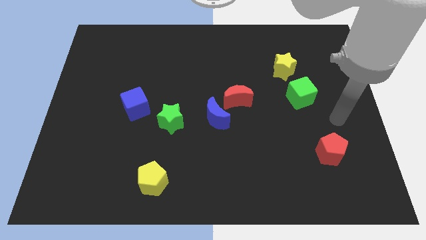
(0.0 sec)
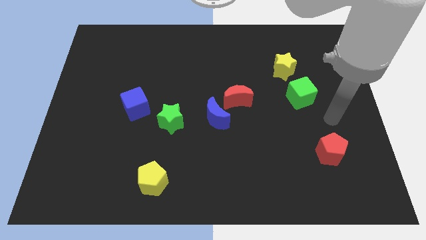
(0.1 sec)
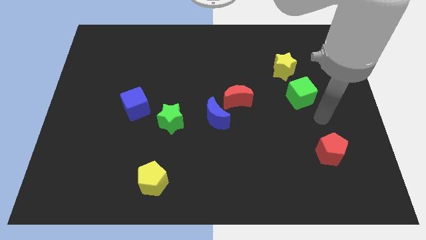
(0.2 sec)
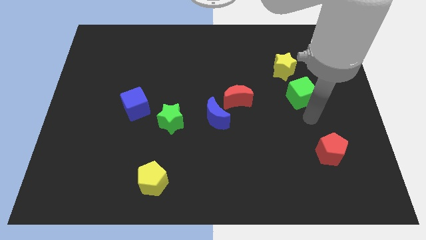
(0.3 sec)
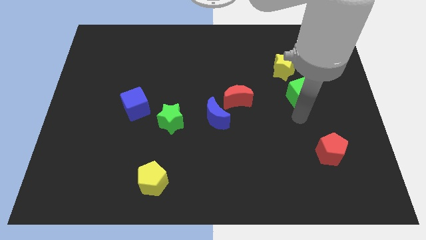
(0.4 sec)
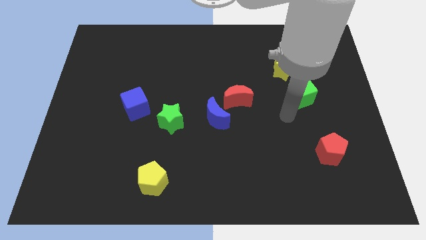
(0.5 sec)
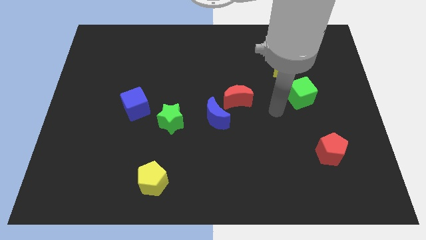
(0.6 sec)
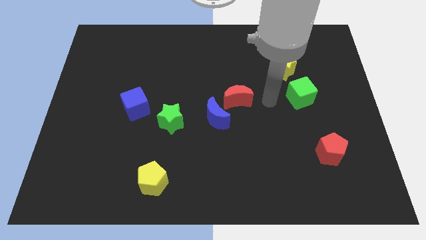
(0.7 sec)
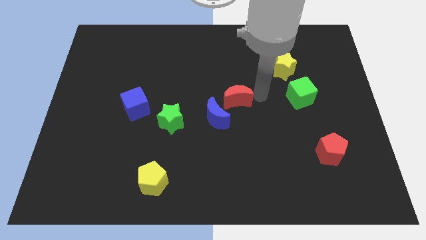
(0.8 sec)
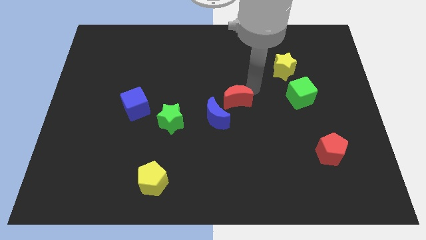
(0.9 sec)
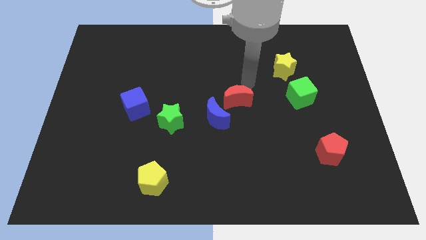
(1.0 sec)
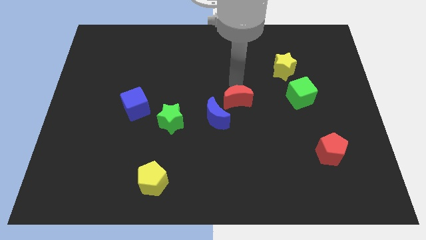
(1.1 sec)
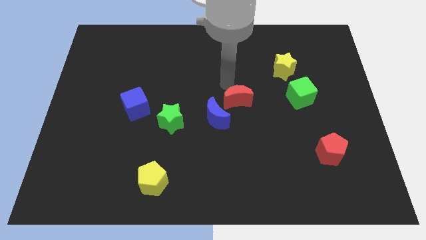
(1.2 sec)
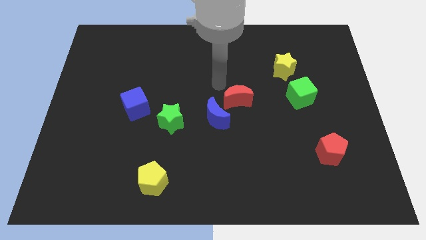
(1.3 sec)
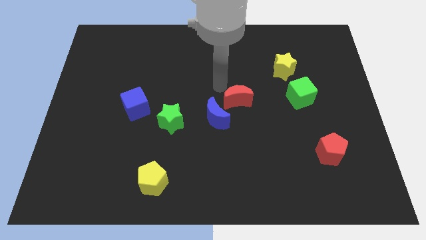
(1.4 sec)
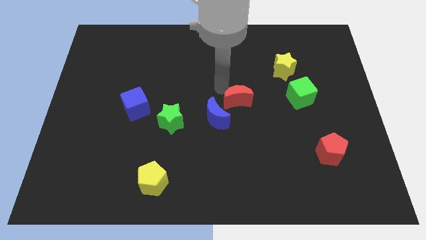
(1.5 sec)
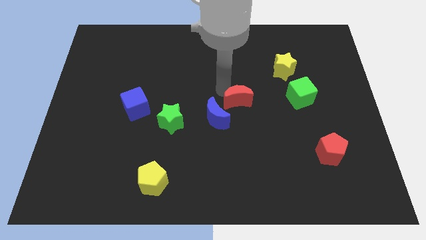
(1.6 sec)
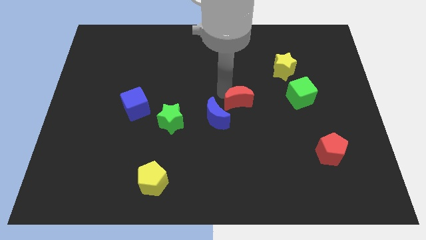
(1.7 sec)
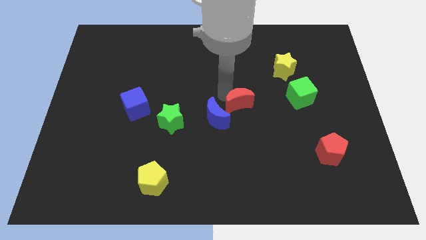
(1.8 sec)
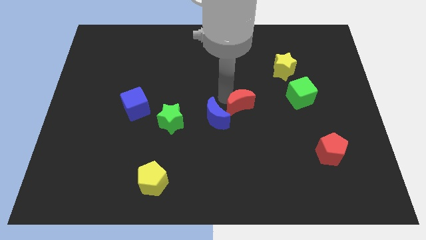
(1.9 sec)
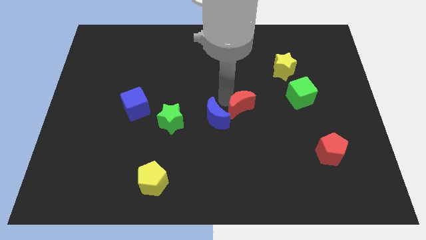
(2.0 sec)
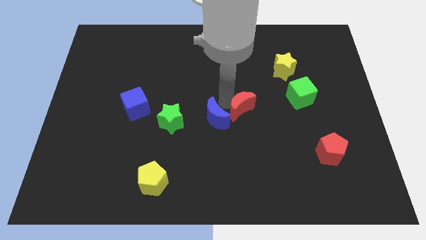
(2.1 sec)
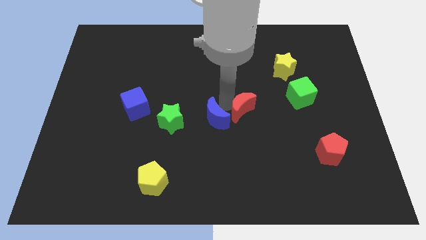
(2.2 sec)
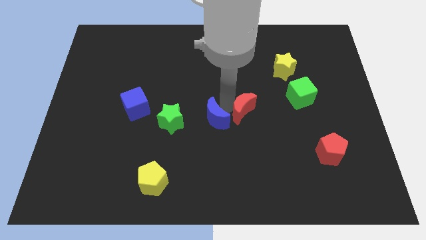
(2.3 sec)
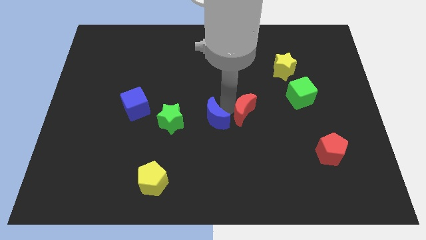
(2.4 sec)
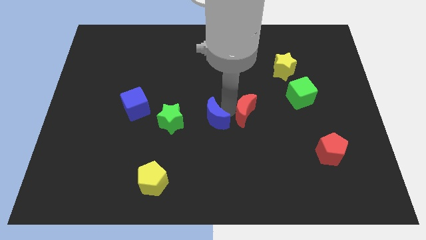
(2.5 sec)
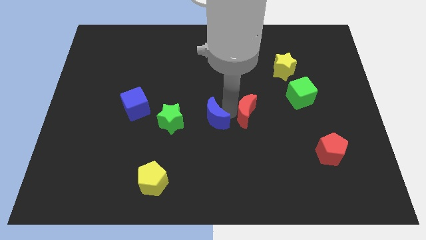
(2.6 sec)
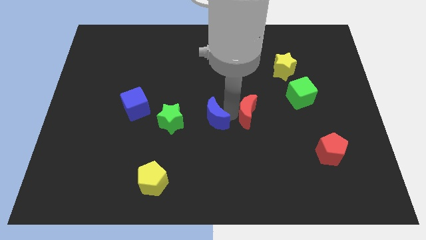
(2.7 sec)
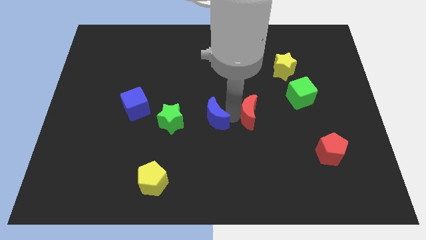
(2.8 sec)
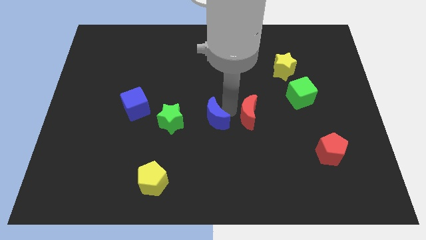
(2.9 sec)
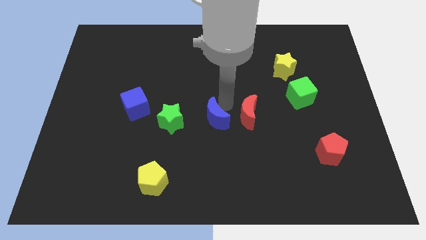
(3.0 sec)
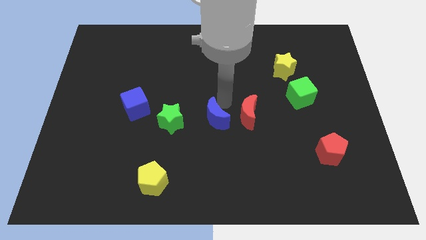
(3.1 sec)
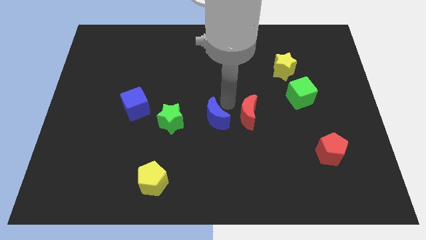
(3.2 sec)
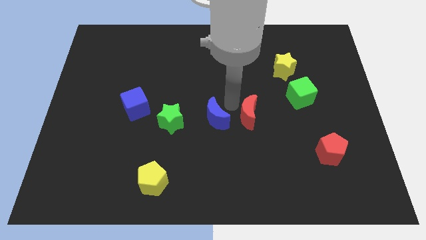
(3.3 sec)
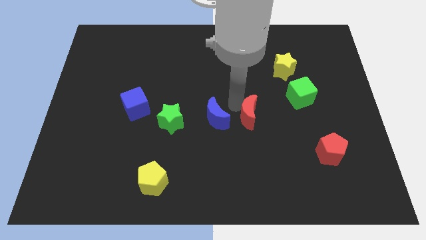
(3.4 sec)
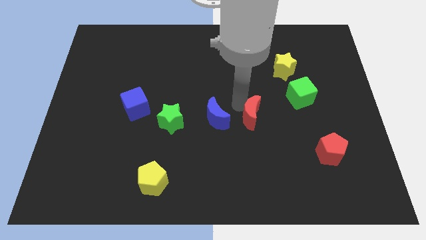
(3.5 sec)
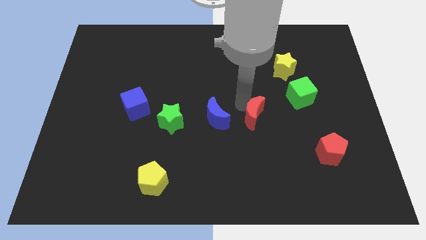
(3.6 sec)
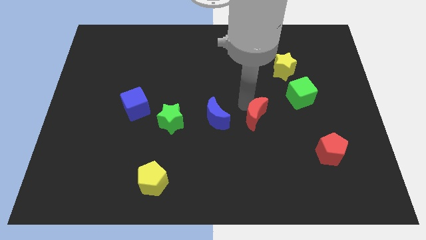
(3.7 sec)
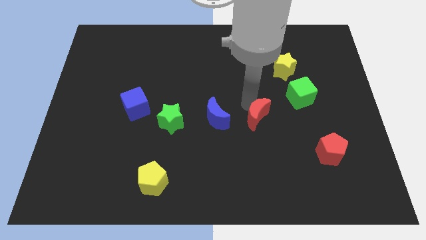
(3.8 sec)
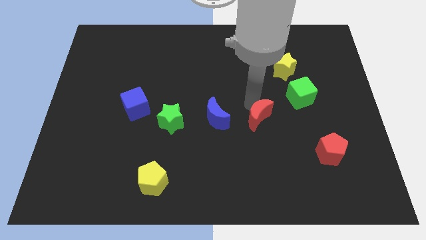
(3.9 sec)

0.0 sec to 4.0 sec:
slightly slide the red moon downwards and right diagonally

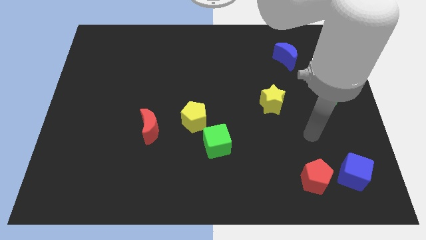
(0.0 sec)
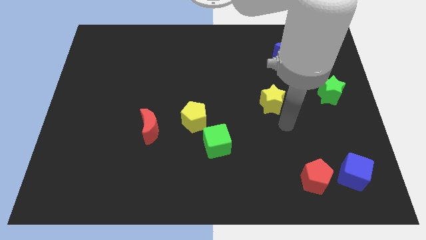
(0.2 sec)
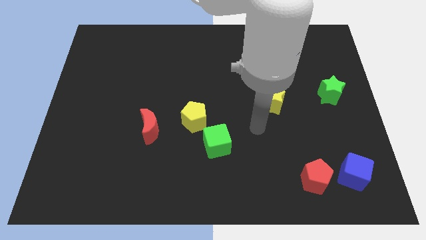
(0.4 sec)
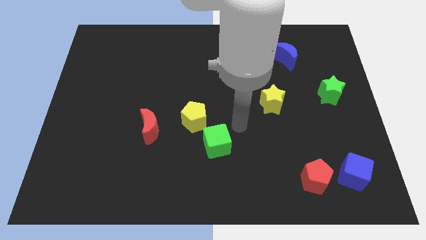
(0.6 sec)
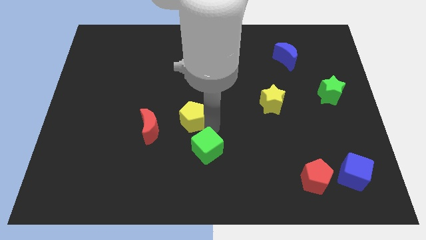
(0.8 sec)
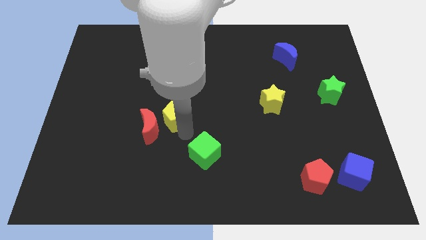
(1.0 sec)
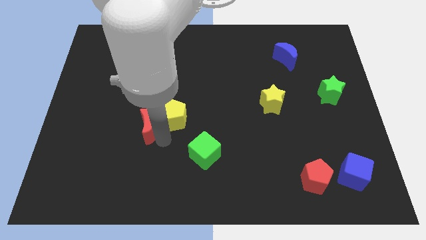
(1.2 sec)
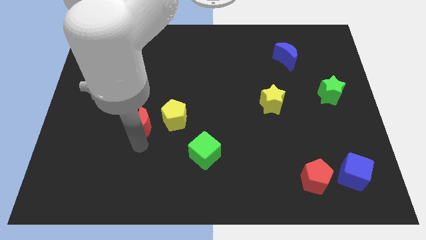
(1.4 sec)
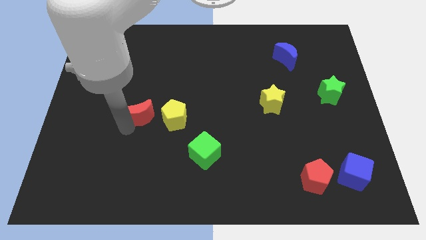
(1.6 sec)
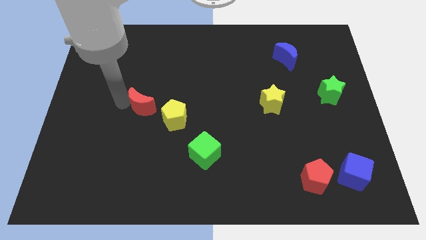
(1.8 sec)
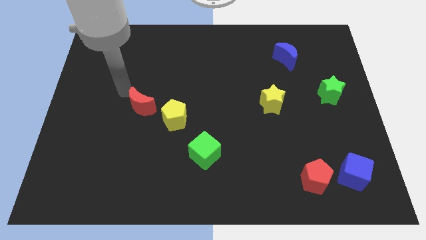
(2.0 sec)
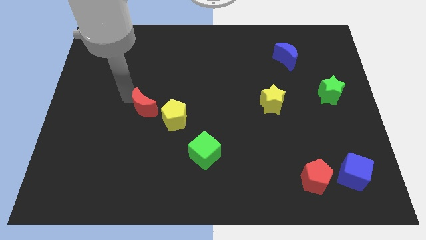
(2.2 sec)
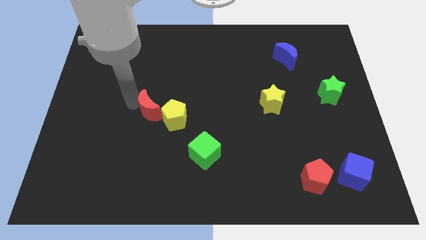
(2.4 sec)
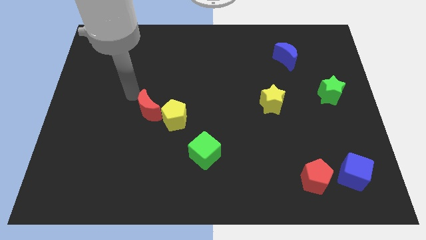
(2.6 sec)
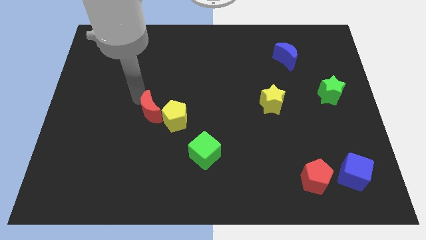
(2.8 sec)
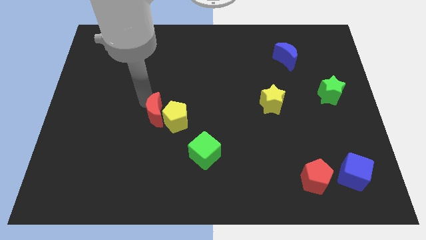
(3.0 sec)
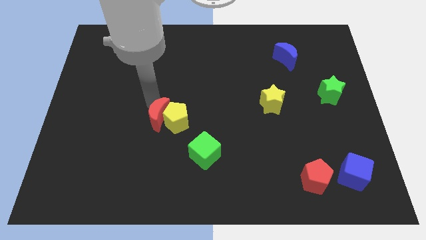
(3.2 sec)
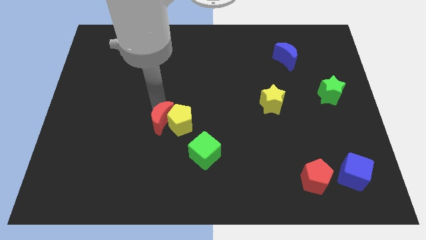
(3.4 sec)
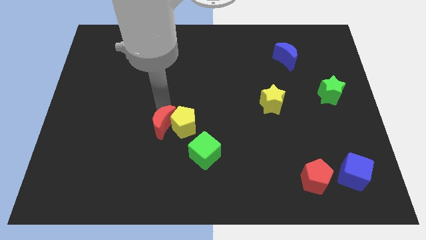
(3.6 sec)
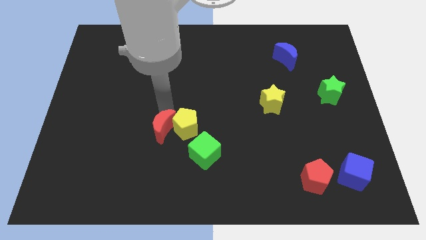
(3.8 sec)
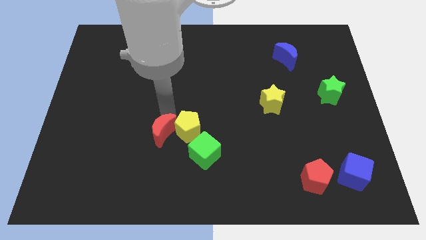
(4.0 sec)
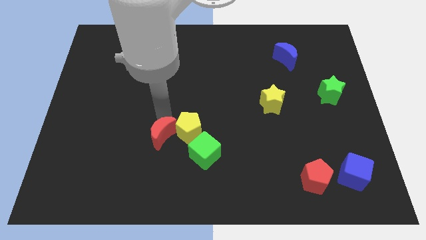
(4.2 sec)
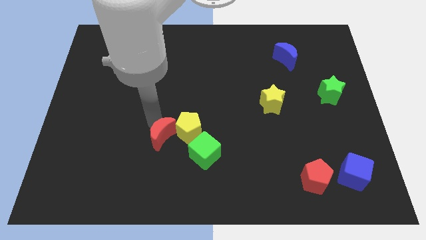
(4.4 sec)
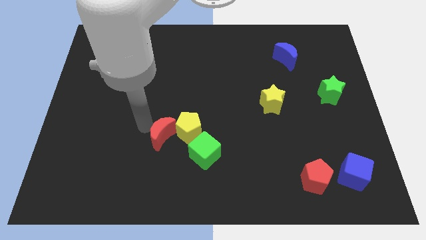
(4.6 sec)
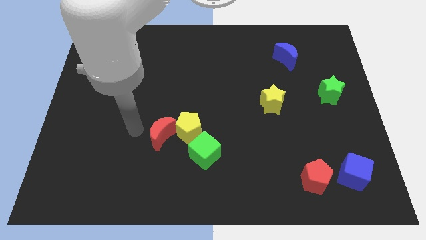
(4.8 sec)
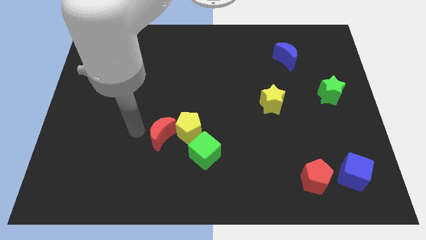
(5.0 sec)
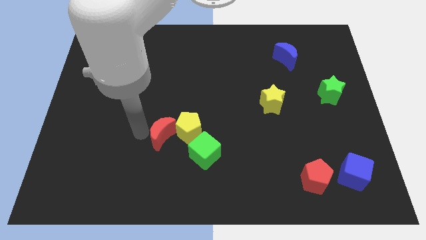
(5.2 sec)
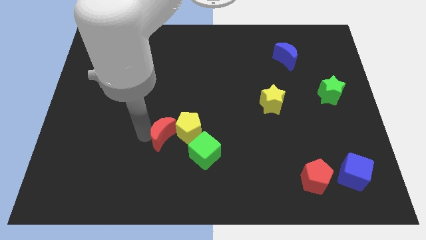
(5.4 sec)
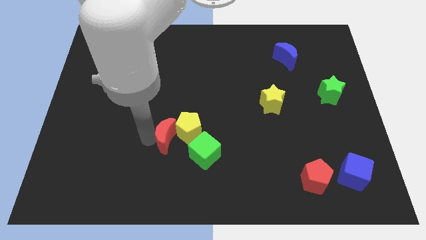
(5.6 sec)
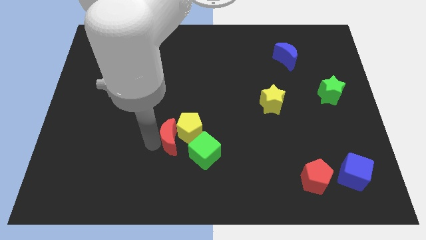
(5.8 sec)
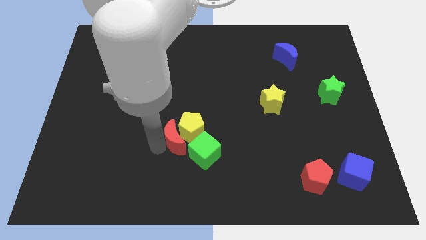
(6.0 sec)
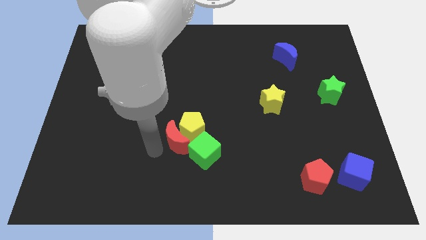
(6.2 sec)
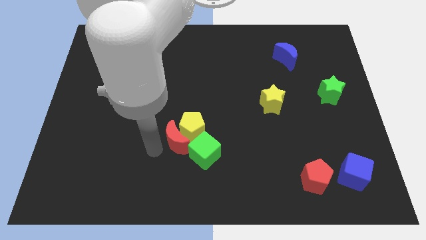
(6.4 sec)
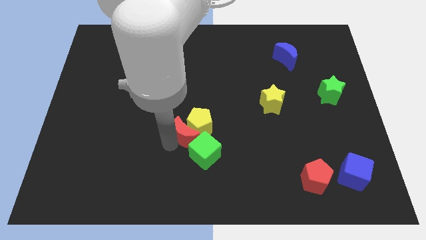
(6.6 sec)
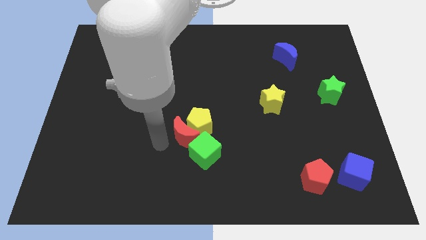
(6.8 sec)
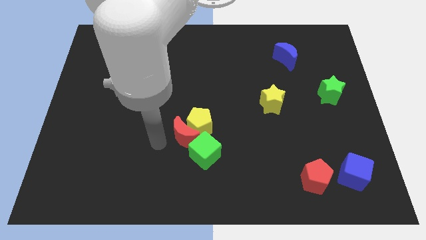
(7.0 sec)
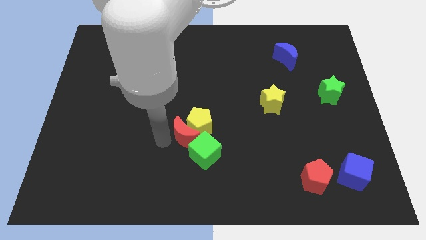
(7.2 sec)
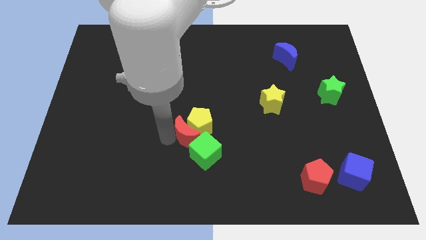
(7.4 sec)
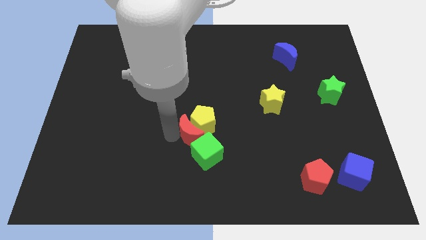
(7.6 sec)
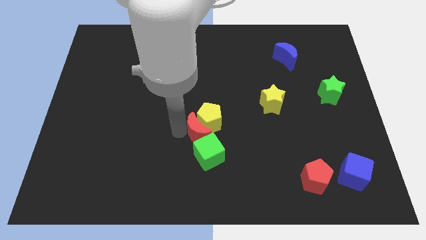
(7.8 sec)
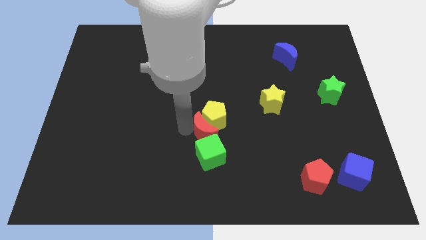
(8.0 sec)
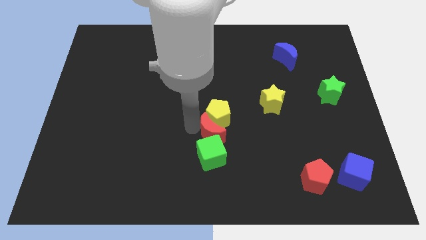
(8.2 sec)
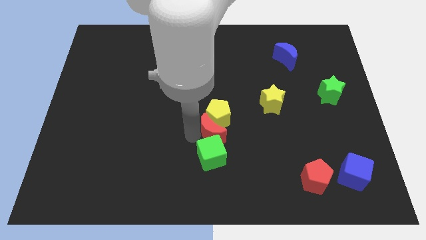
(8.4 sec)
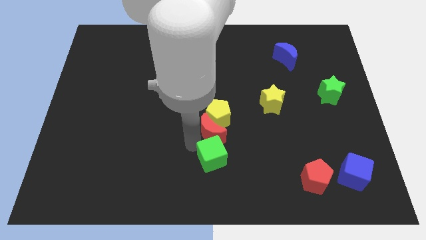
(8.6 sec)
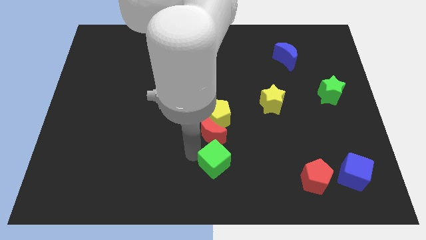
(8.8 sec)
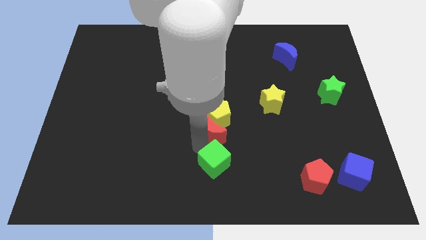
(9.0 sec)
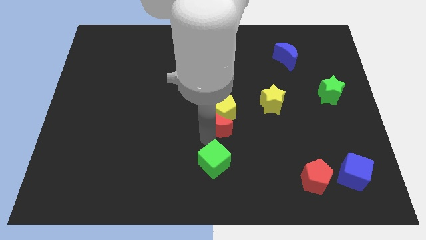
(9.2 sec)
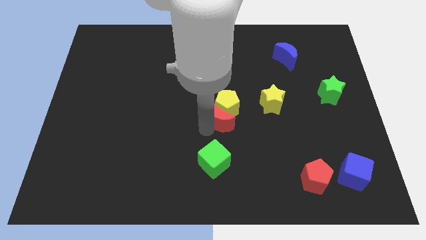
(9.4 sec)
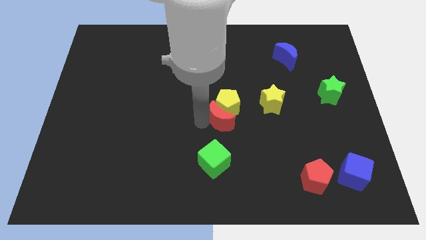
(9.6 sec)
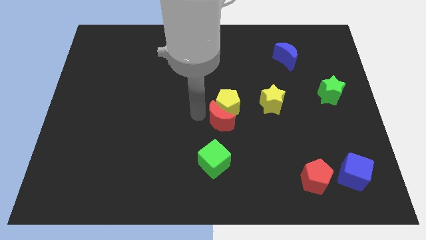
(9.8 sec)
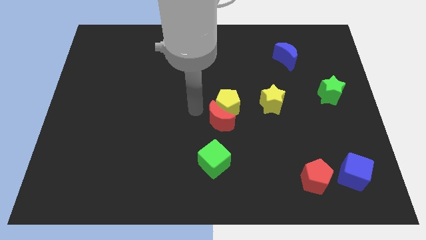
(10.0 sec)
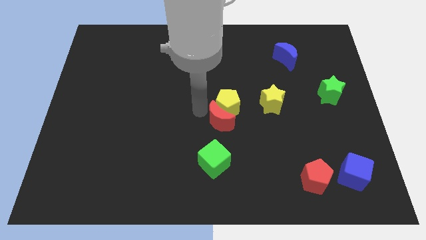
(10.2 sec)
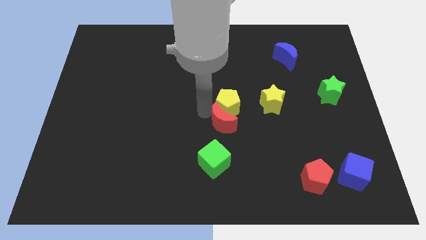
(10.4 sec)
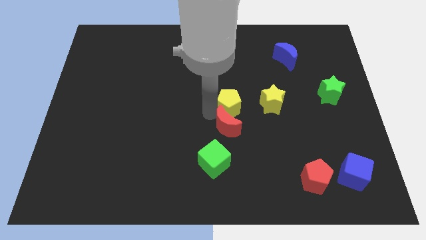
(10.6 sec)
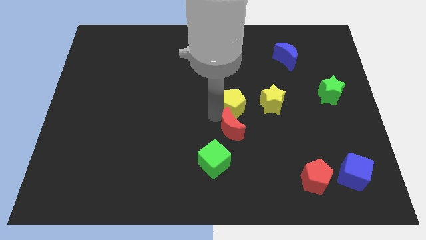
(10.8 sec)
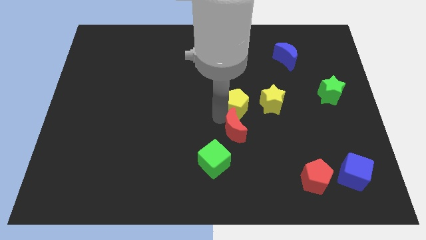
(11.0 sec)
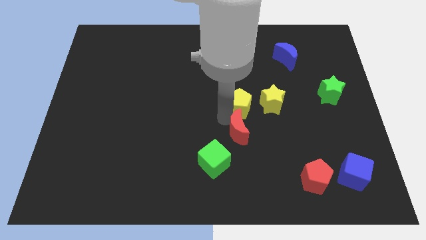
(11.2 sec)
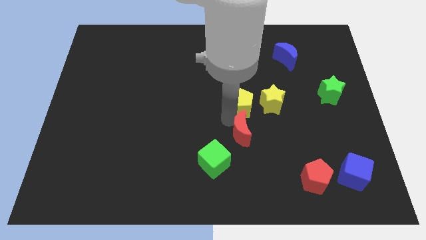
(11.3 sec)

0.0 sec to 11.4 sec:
push the red moon to the right
